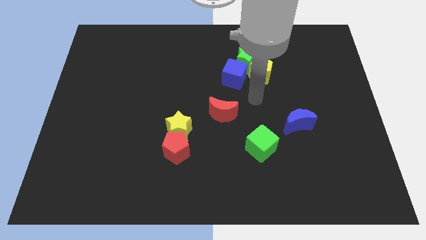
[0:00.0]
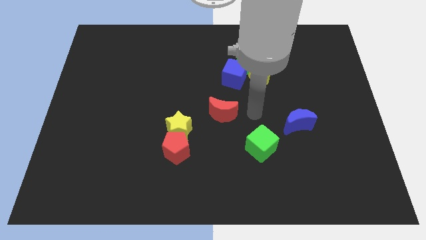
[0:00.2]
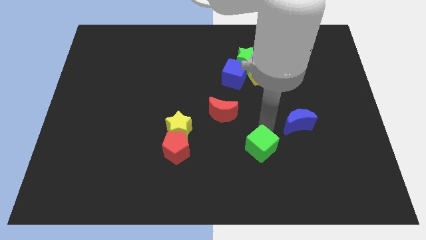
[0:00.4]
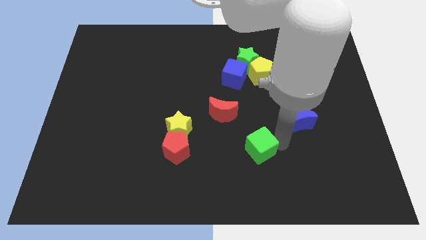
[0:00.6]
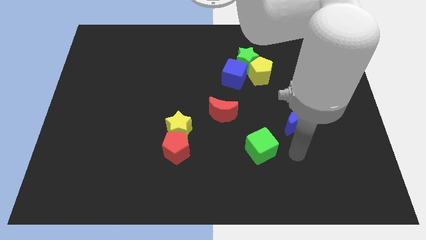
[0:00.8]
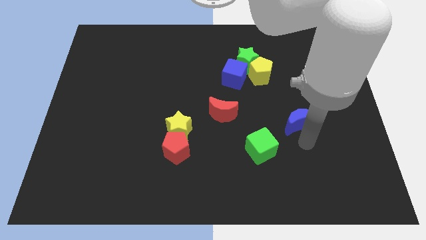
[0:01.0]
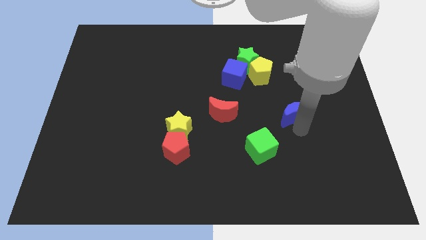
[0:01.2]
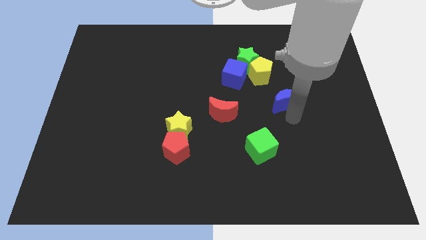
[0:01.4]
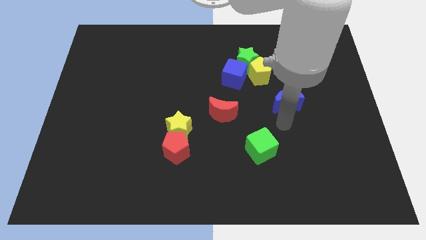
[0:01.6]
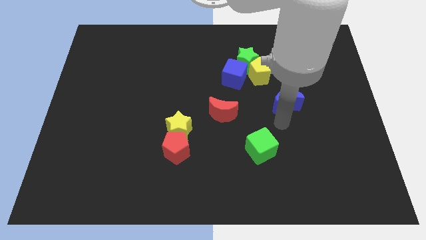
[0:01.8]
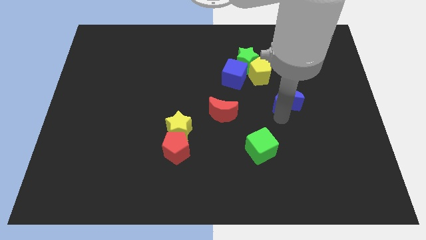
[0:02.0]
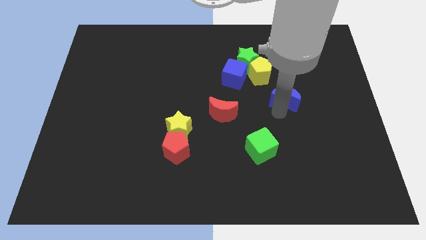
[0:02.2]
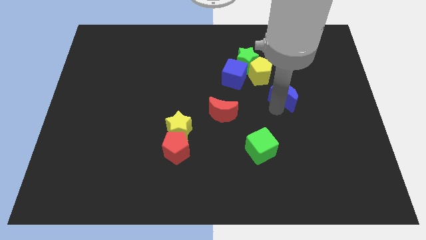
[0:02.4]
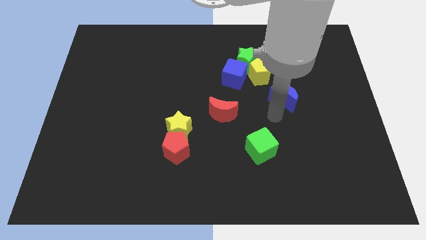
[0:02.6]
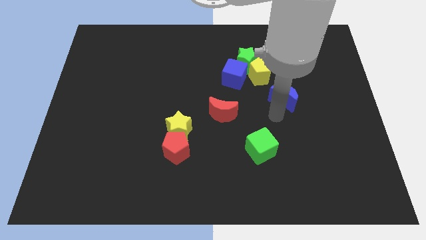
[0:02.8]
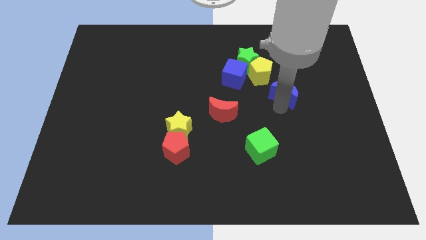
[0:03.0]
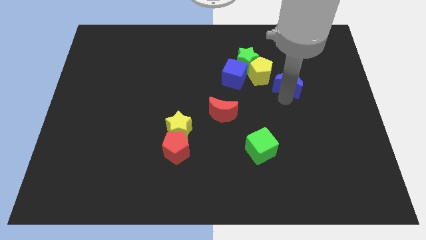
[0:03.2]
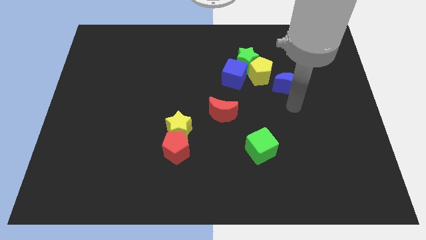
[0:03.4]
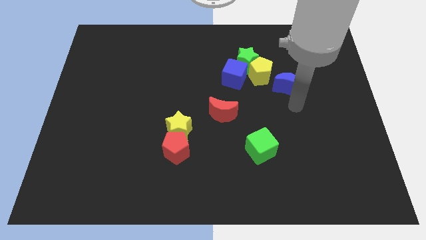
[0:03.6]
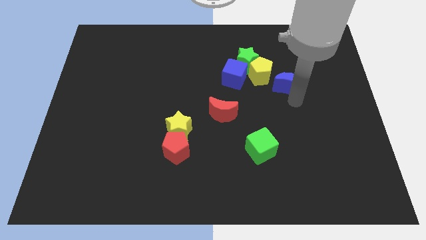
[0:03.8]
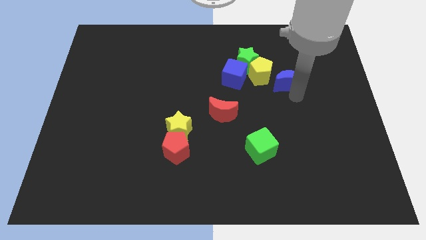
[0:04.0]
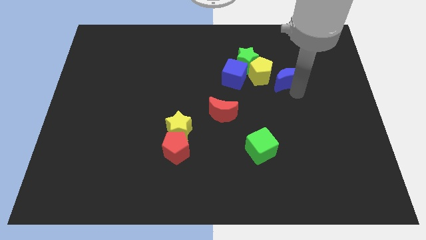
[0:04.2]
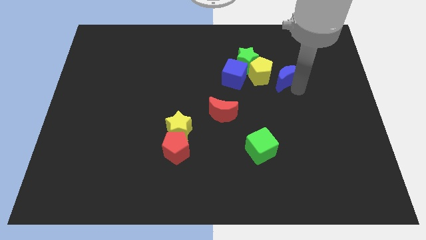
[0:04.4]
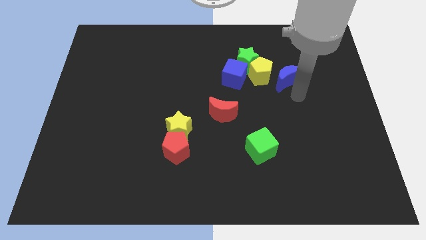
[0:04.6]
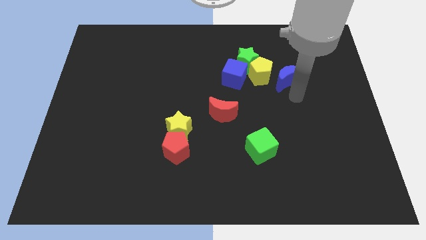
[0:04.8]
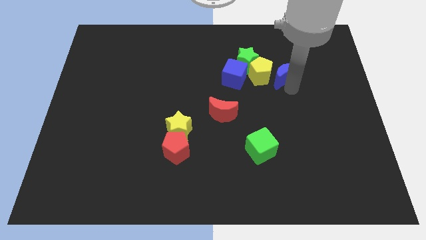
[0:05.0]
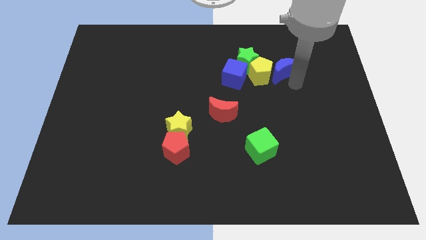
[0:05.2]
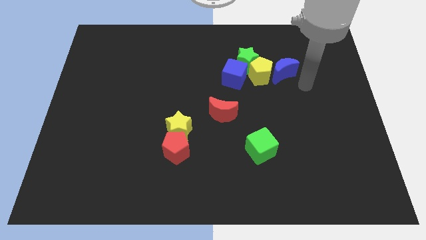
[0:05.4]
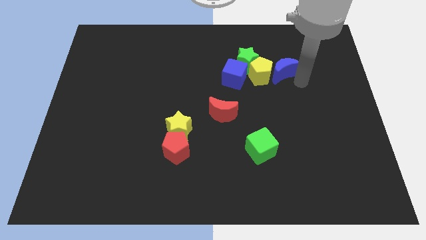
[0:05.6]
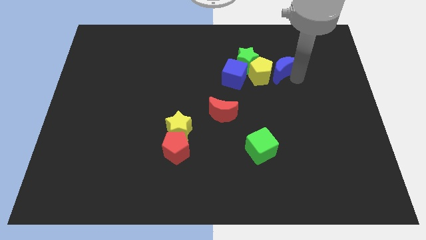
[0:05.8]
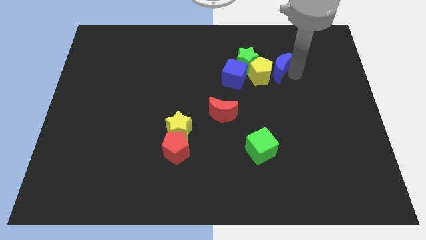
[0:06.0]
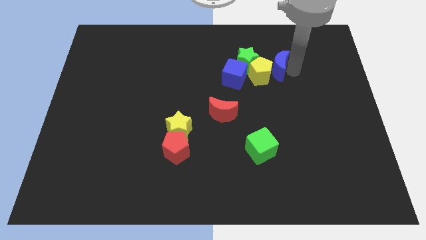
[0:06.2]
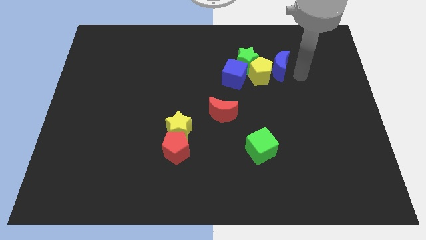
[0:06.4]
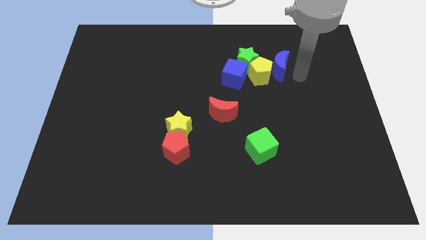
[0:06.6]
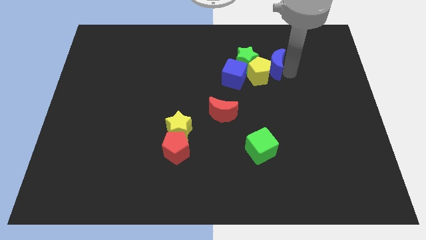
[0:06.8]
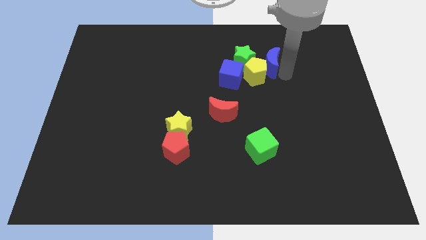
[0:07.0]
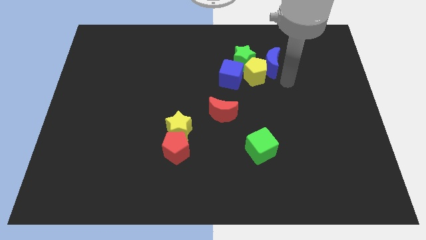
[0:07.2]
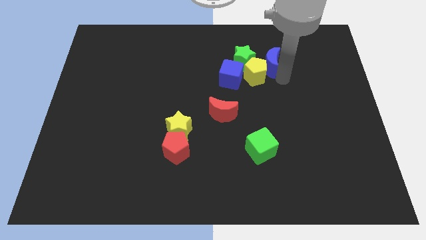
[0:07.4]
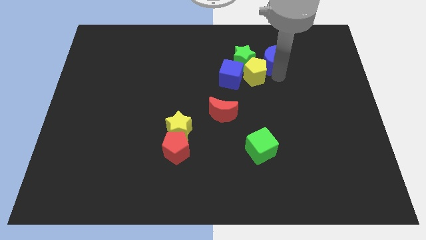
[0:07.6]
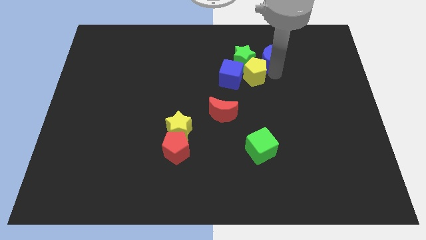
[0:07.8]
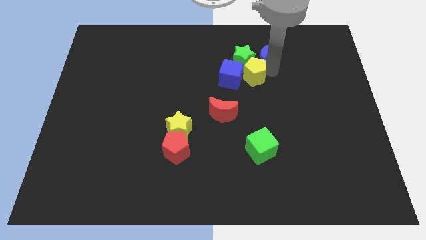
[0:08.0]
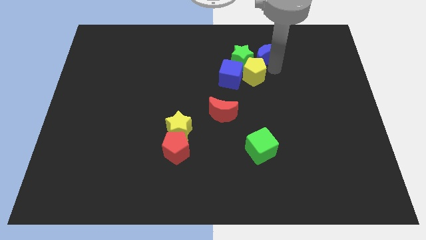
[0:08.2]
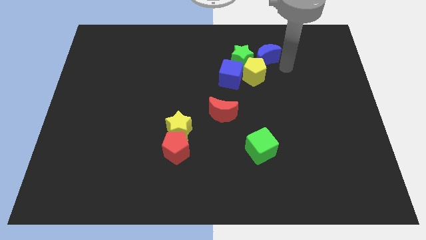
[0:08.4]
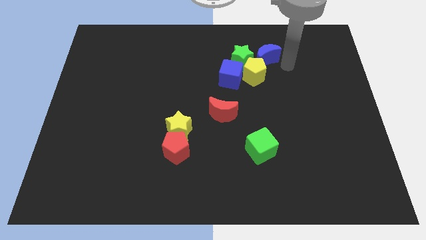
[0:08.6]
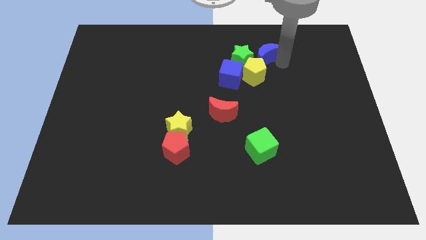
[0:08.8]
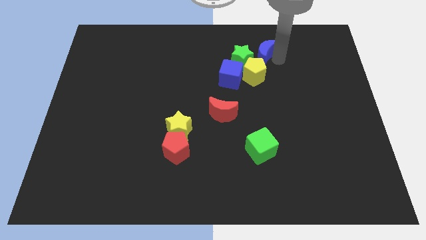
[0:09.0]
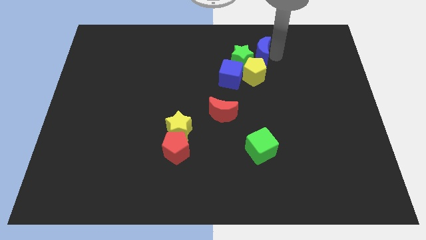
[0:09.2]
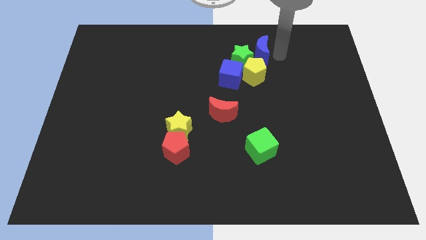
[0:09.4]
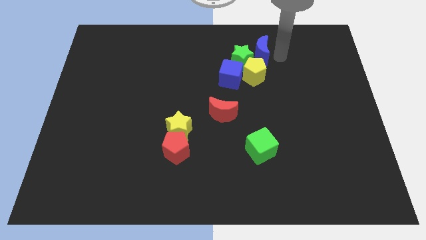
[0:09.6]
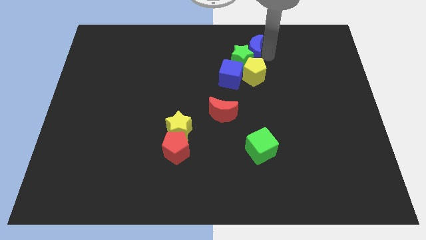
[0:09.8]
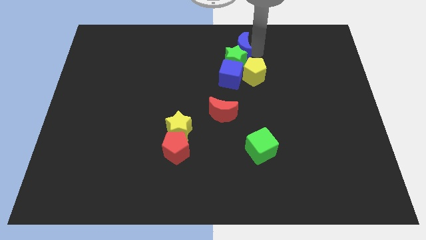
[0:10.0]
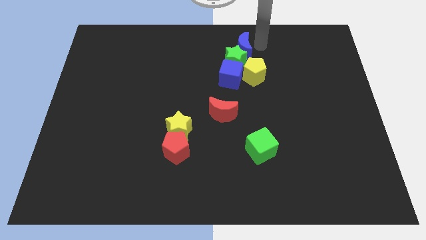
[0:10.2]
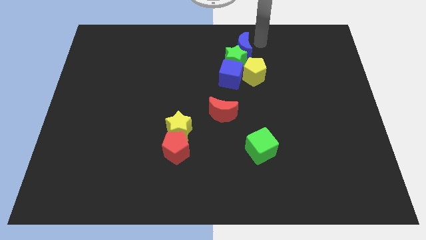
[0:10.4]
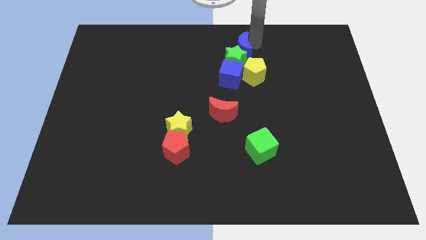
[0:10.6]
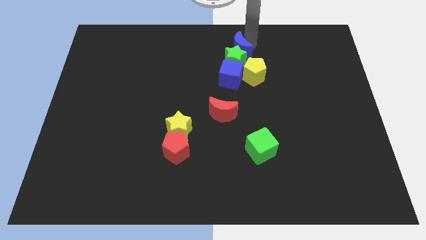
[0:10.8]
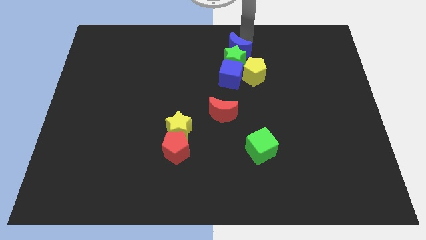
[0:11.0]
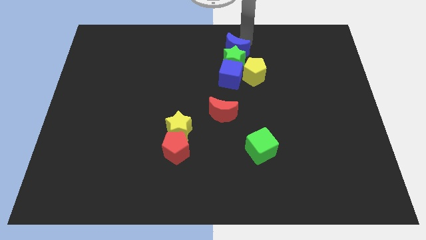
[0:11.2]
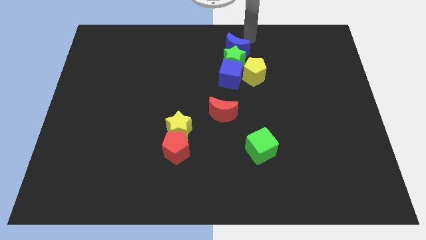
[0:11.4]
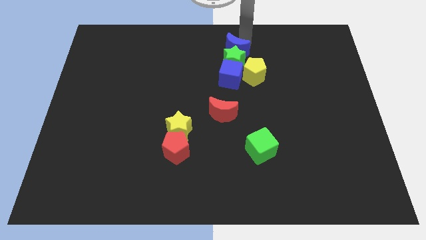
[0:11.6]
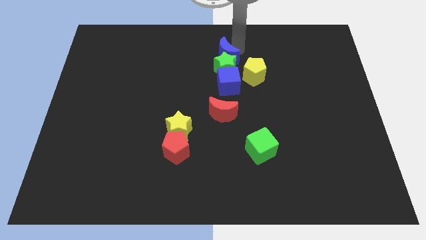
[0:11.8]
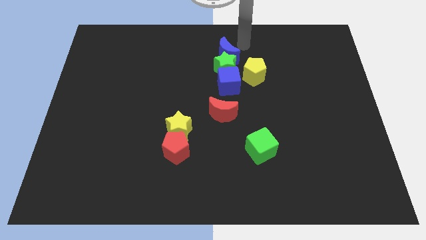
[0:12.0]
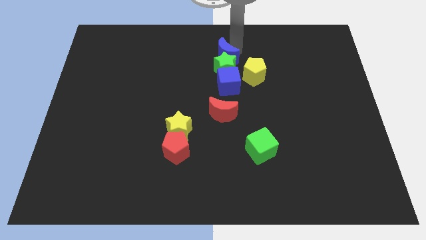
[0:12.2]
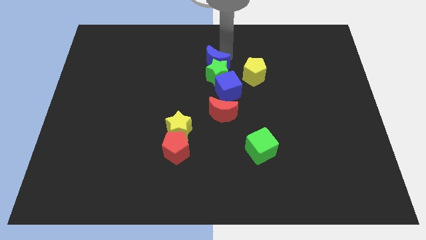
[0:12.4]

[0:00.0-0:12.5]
put the blue moon to the top left of the blue cube

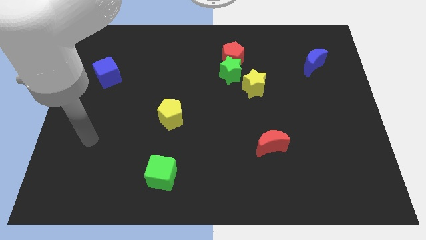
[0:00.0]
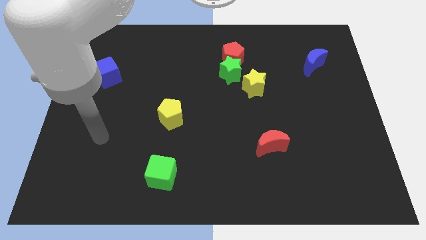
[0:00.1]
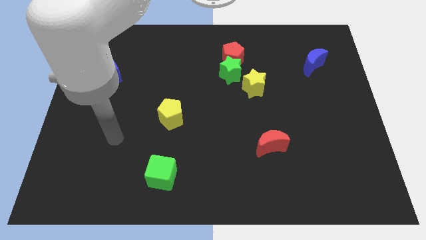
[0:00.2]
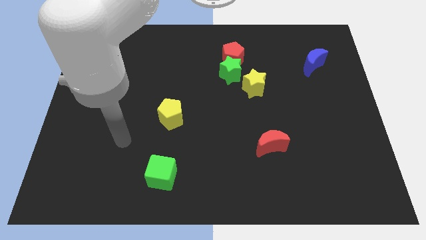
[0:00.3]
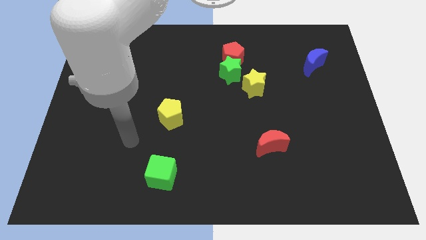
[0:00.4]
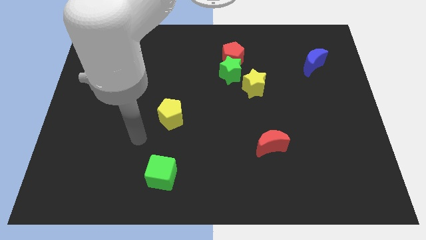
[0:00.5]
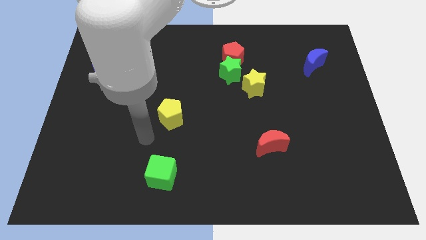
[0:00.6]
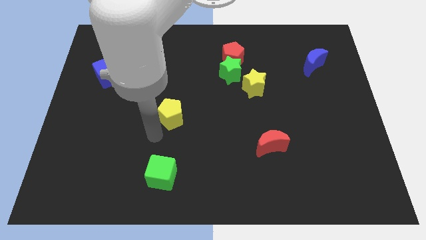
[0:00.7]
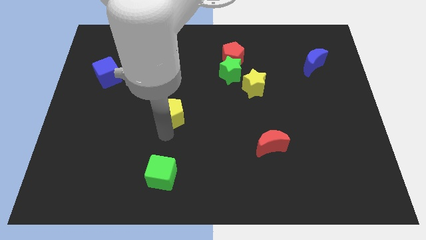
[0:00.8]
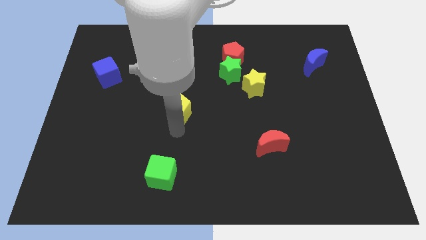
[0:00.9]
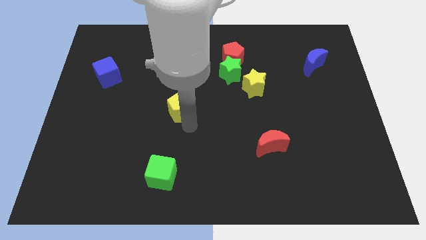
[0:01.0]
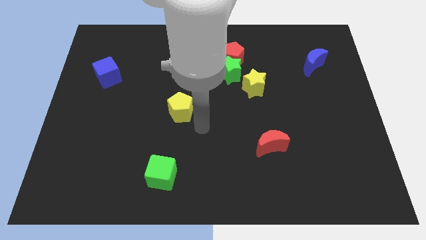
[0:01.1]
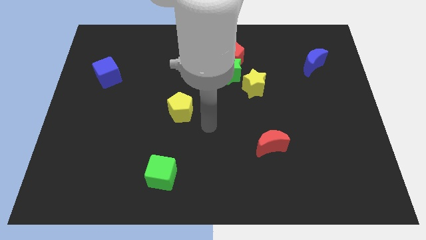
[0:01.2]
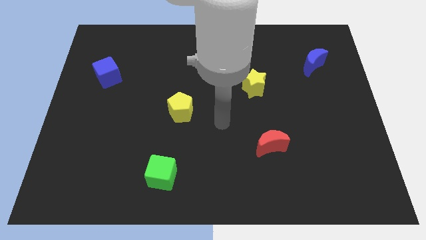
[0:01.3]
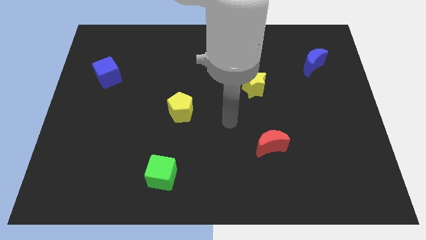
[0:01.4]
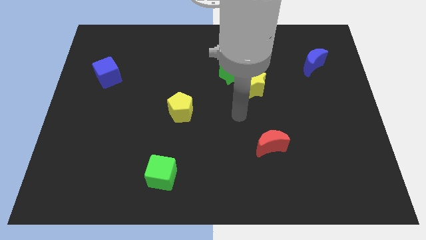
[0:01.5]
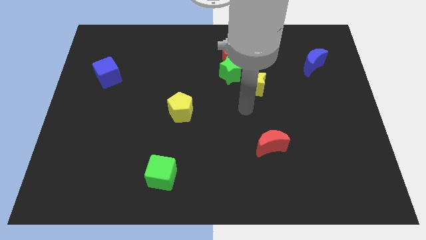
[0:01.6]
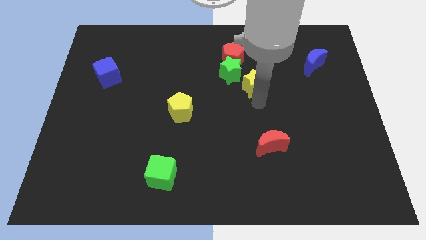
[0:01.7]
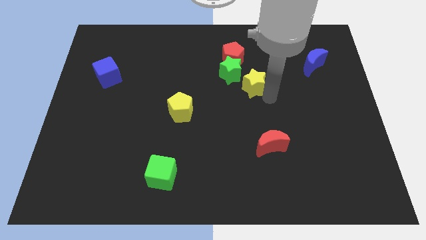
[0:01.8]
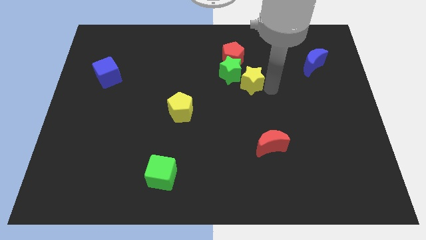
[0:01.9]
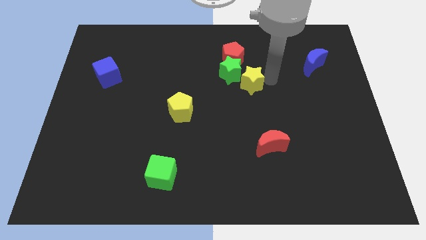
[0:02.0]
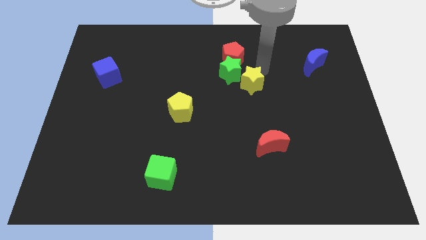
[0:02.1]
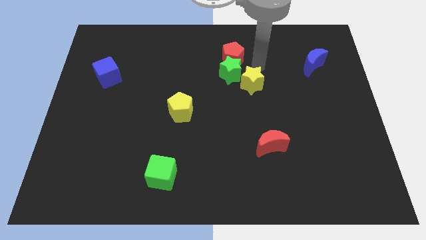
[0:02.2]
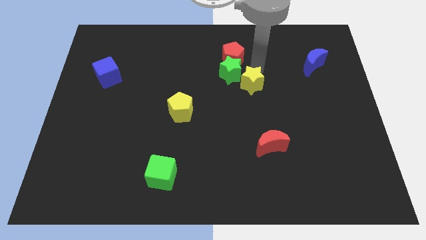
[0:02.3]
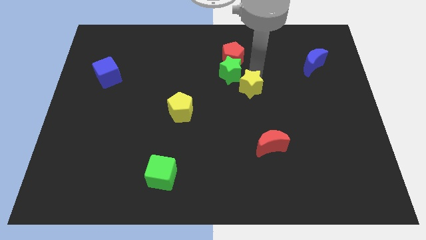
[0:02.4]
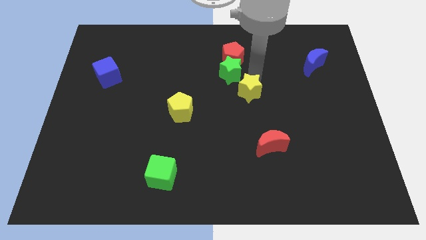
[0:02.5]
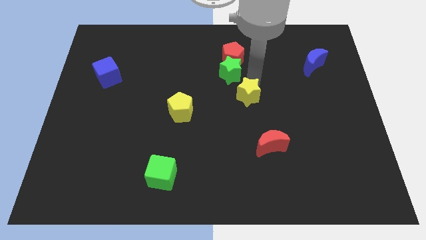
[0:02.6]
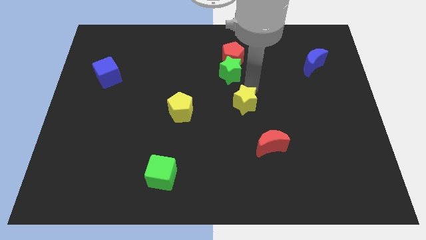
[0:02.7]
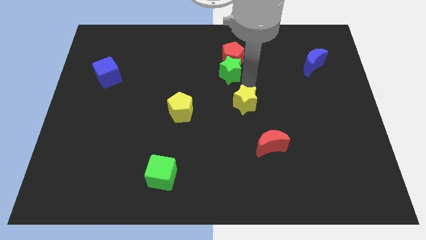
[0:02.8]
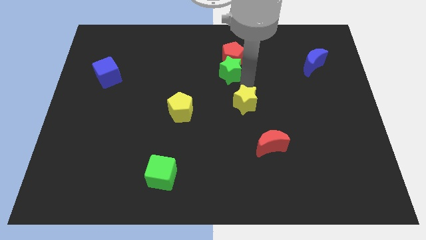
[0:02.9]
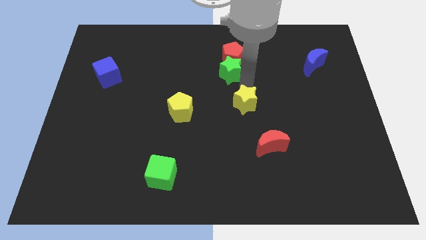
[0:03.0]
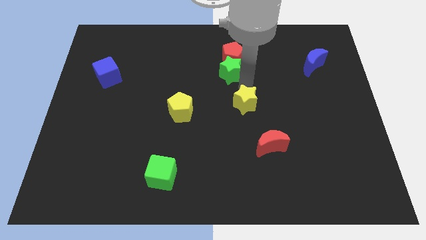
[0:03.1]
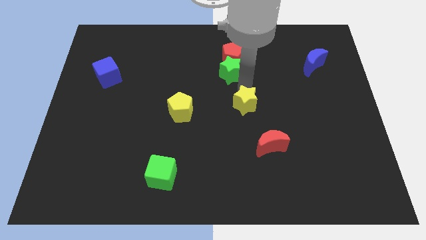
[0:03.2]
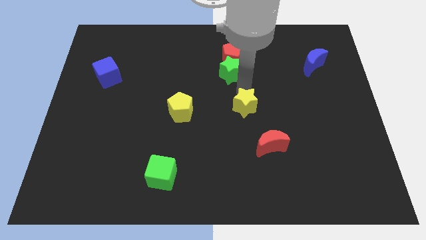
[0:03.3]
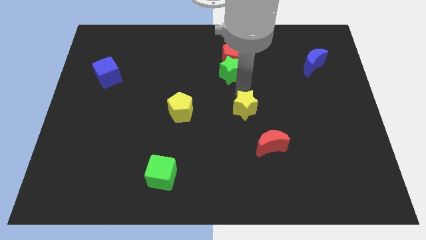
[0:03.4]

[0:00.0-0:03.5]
push the yellow star diagonally up and to the left of the red moon
